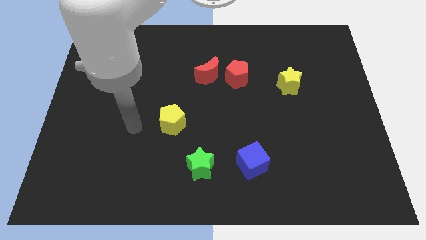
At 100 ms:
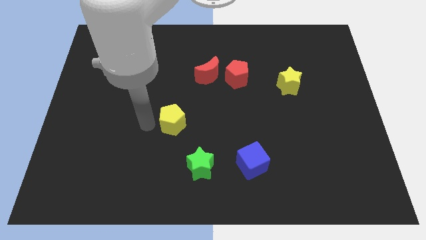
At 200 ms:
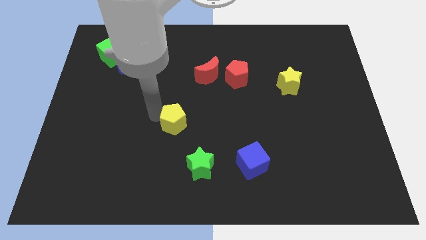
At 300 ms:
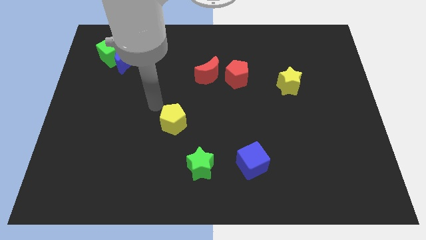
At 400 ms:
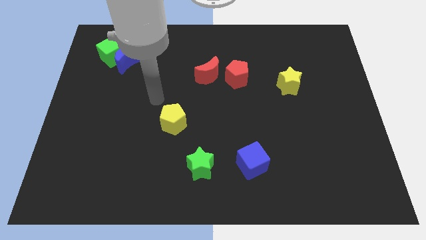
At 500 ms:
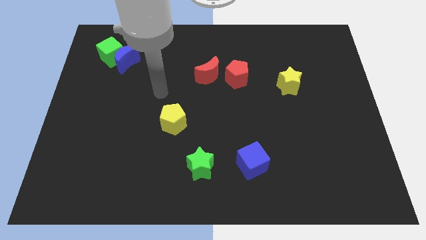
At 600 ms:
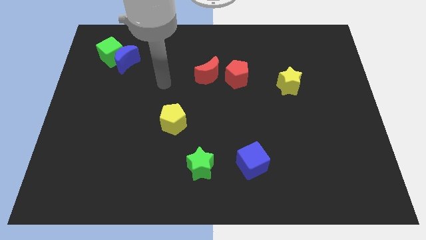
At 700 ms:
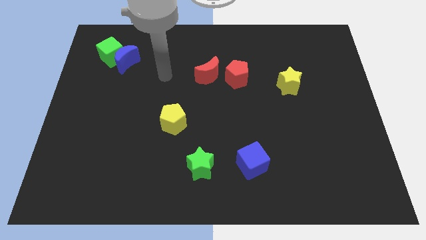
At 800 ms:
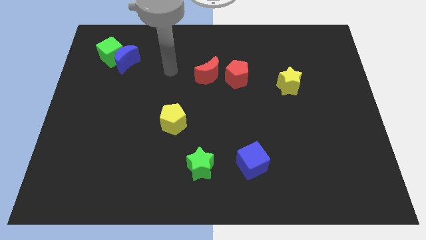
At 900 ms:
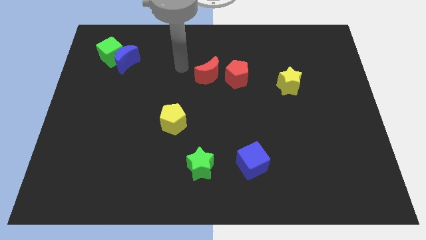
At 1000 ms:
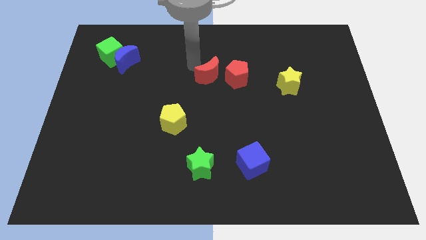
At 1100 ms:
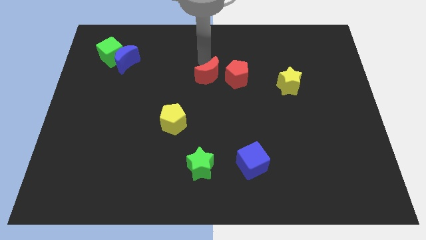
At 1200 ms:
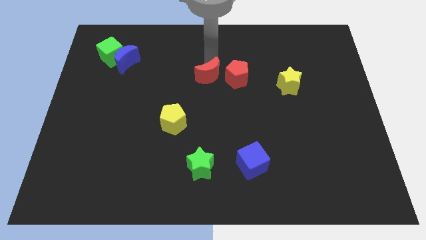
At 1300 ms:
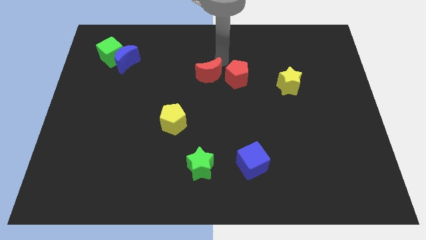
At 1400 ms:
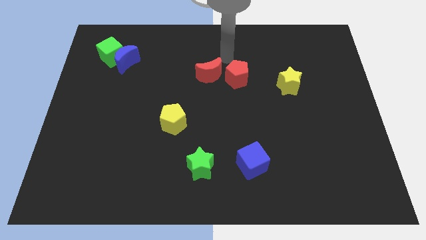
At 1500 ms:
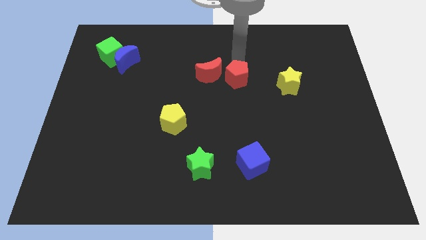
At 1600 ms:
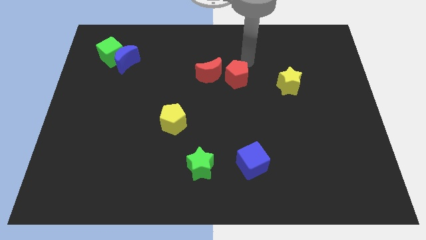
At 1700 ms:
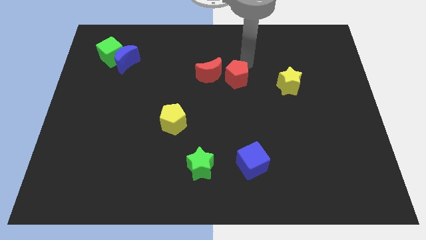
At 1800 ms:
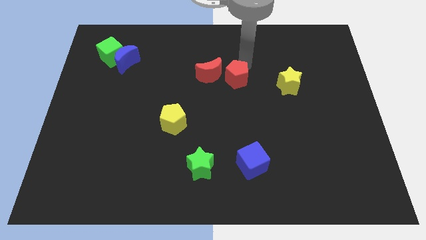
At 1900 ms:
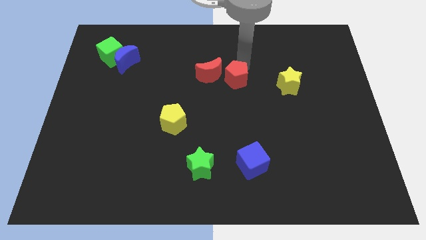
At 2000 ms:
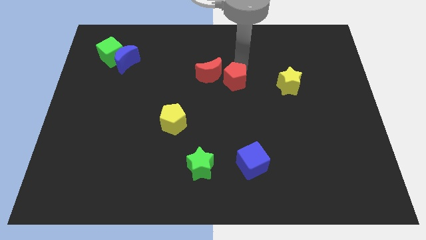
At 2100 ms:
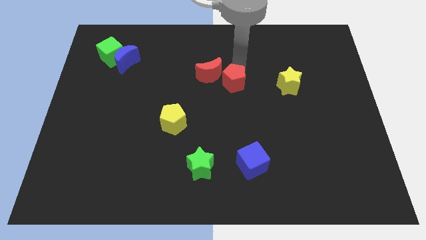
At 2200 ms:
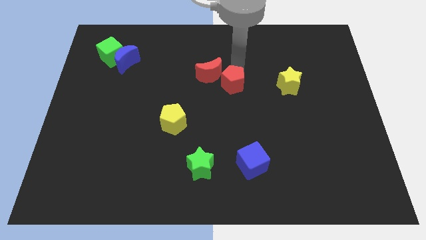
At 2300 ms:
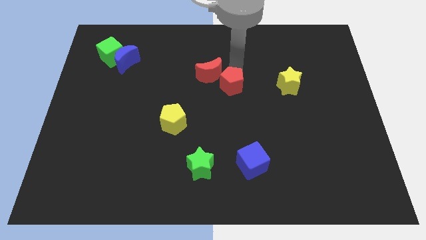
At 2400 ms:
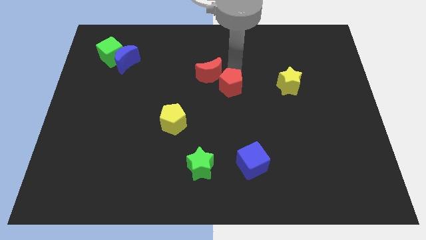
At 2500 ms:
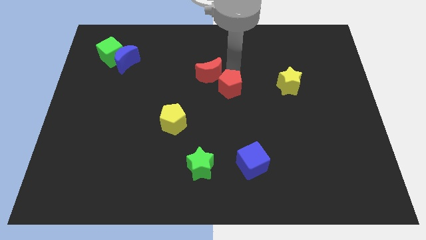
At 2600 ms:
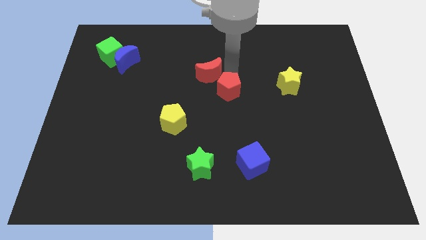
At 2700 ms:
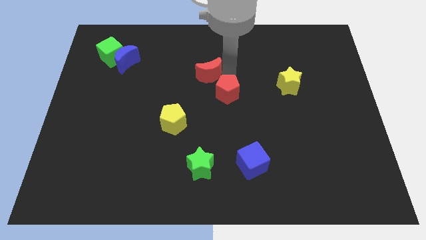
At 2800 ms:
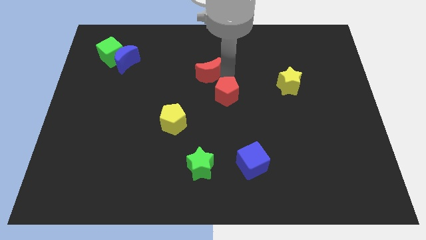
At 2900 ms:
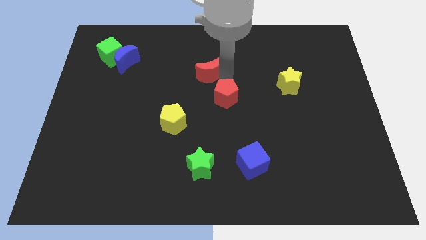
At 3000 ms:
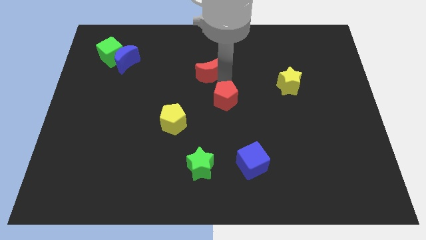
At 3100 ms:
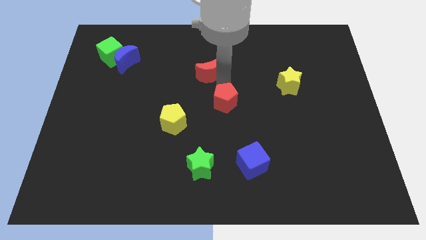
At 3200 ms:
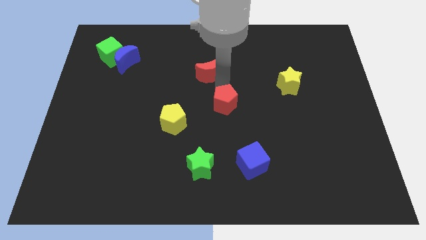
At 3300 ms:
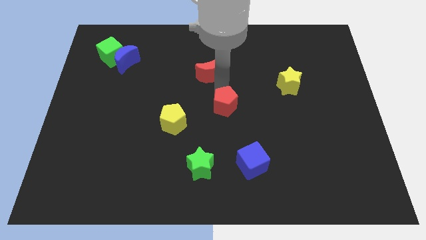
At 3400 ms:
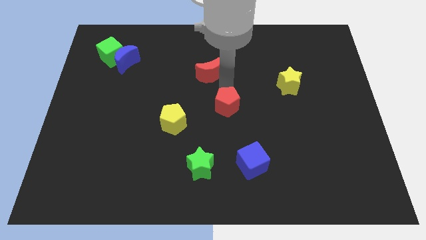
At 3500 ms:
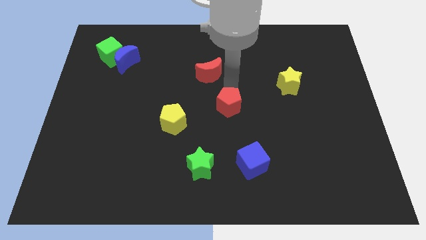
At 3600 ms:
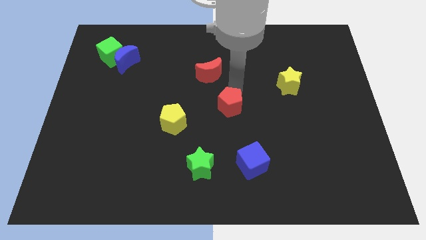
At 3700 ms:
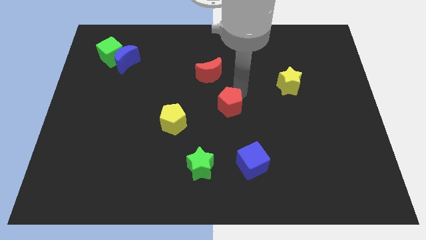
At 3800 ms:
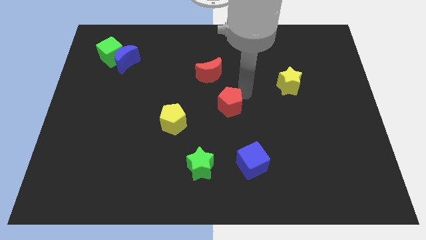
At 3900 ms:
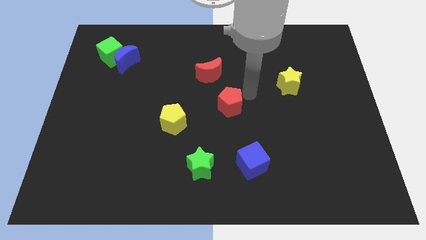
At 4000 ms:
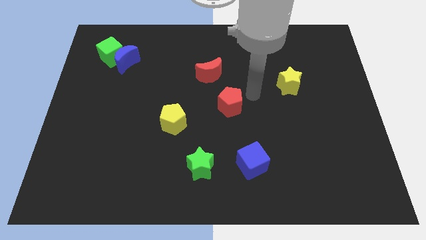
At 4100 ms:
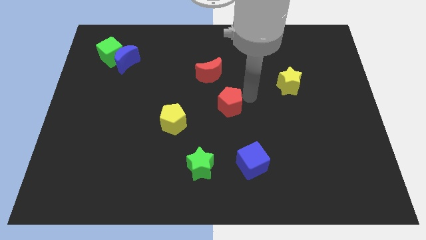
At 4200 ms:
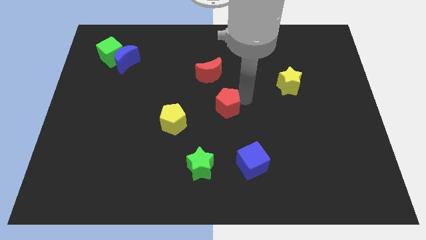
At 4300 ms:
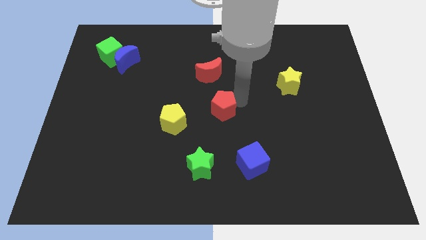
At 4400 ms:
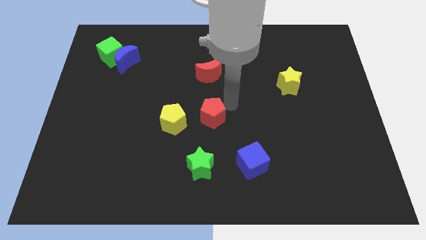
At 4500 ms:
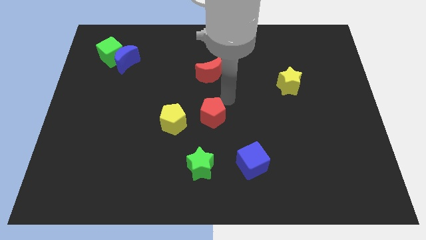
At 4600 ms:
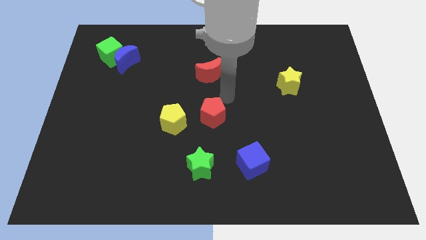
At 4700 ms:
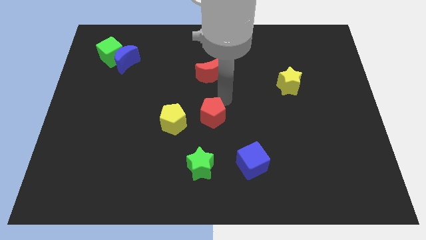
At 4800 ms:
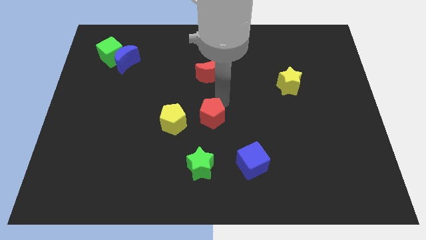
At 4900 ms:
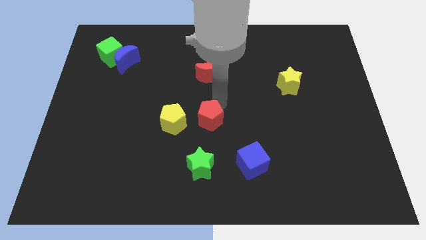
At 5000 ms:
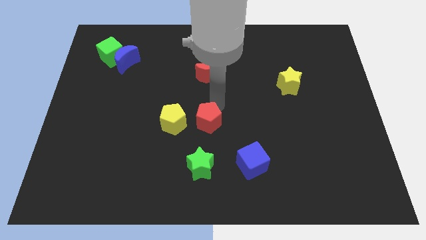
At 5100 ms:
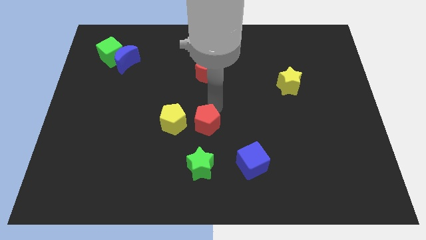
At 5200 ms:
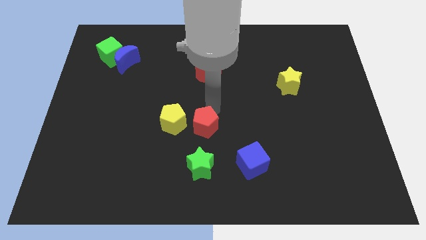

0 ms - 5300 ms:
slide the red pentagon to the bottom right side of the yellow pentagon

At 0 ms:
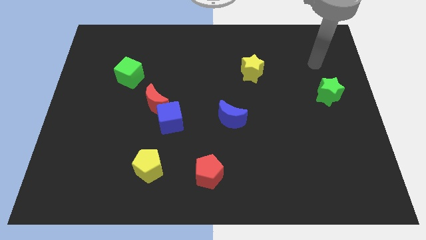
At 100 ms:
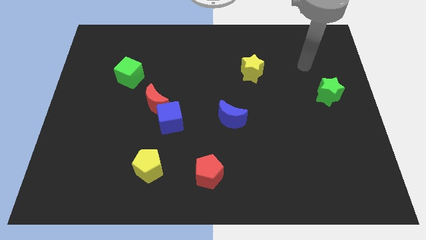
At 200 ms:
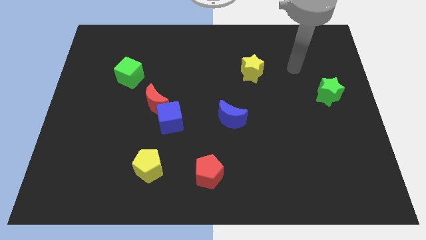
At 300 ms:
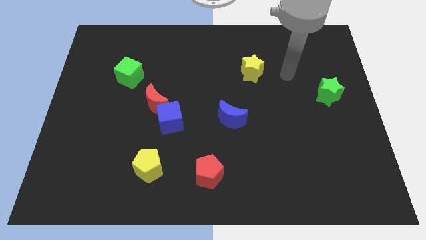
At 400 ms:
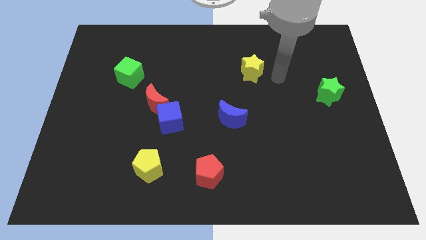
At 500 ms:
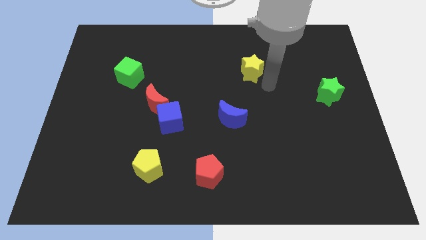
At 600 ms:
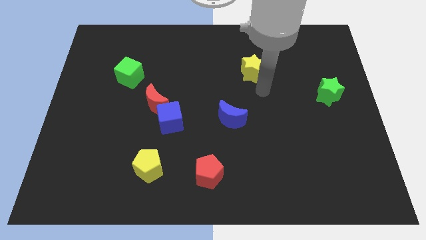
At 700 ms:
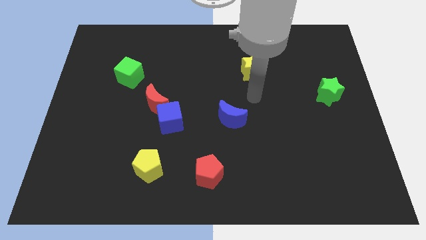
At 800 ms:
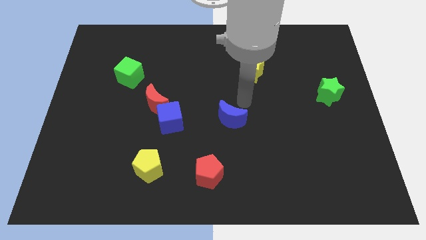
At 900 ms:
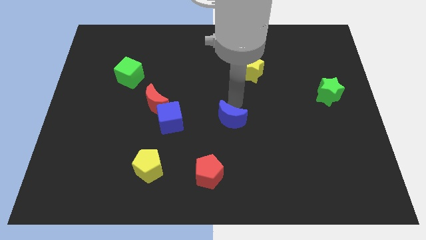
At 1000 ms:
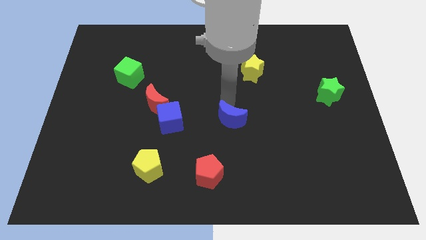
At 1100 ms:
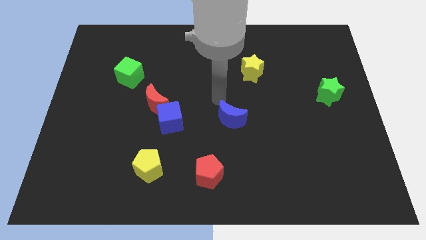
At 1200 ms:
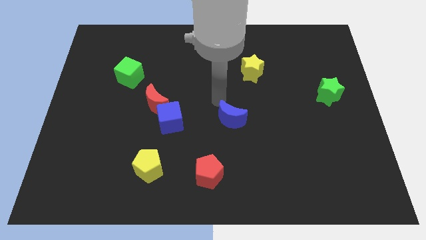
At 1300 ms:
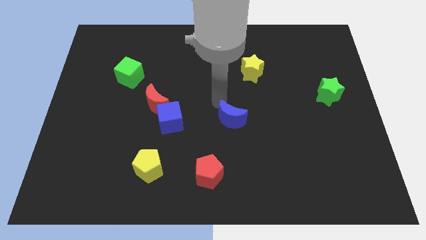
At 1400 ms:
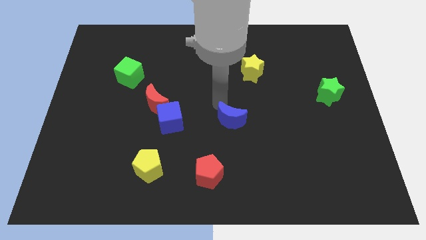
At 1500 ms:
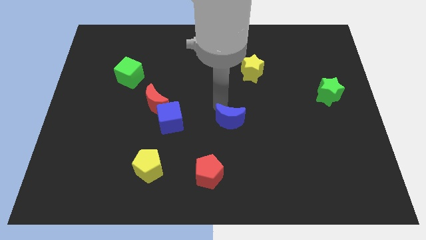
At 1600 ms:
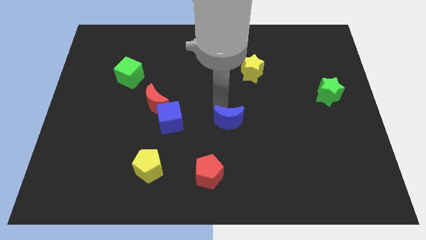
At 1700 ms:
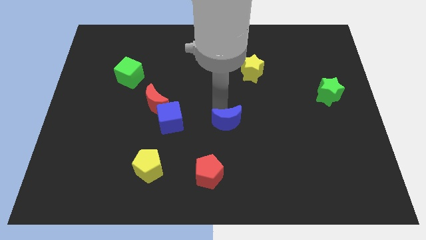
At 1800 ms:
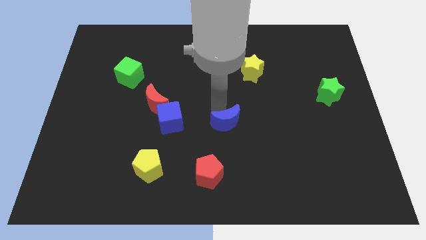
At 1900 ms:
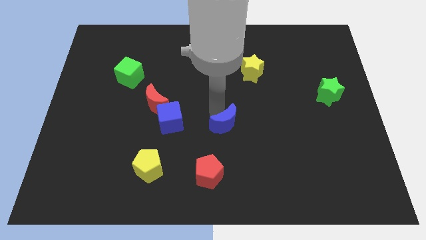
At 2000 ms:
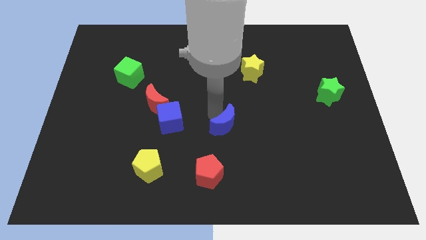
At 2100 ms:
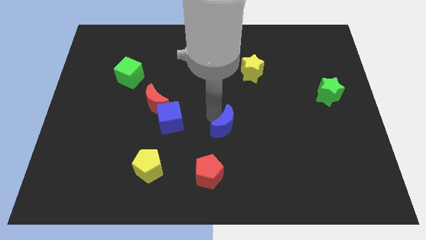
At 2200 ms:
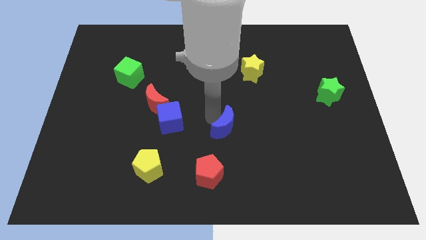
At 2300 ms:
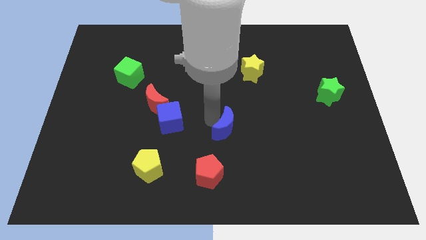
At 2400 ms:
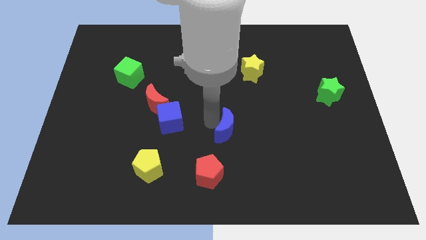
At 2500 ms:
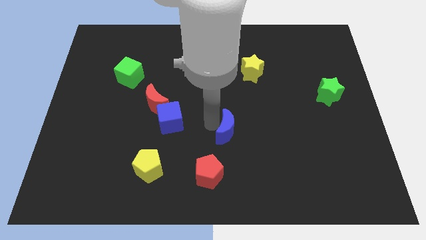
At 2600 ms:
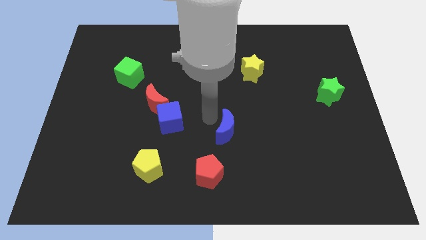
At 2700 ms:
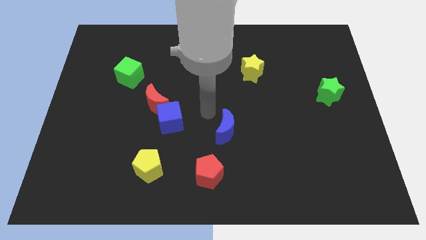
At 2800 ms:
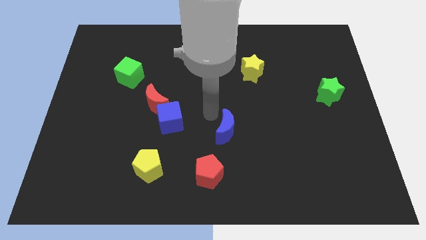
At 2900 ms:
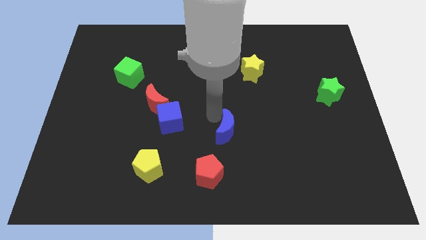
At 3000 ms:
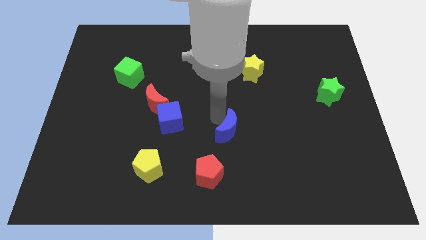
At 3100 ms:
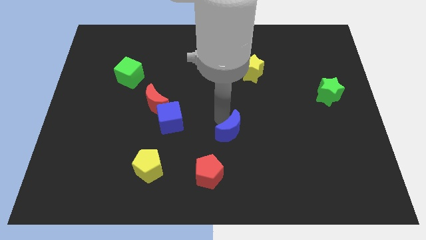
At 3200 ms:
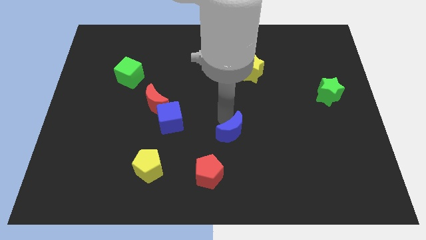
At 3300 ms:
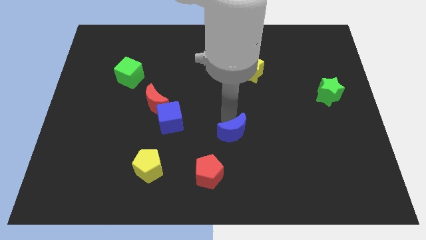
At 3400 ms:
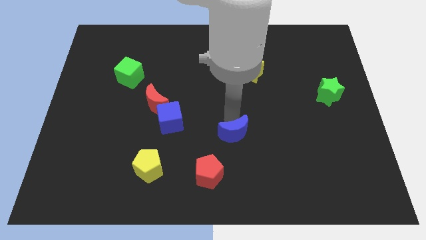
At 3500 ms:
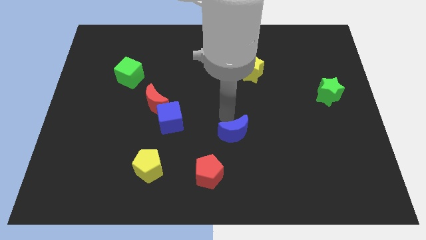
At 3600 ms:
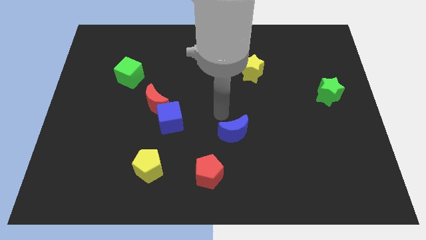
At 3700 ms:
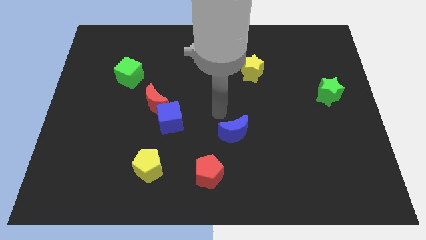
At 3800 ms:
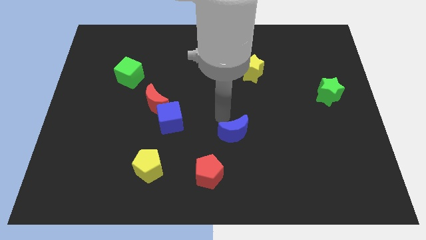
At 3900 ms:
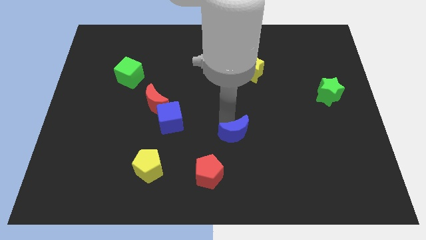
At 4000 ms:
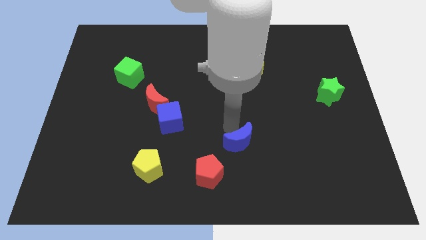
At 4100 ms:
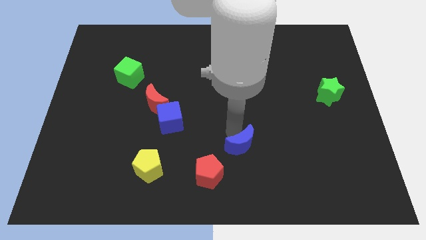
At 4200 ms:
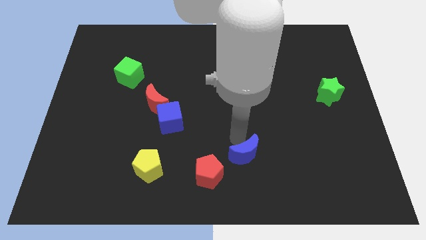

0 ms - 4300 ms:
put the blue moon to the right side of the red pentagon
